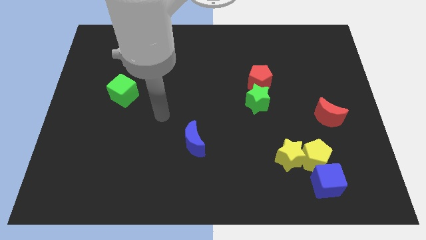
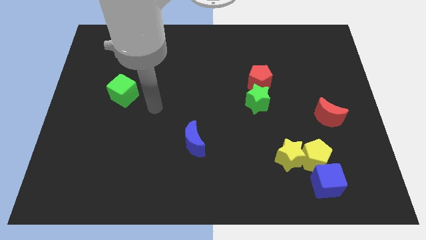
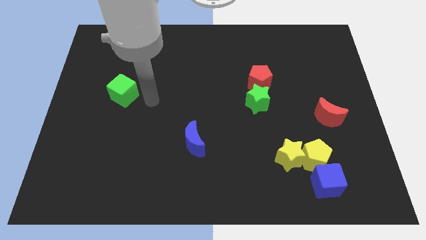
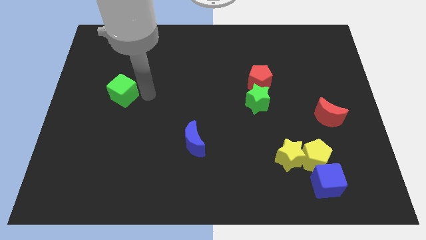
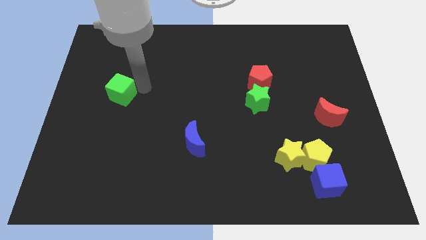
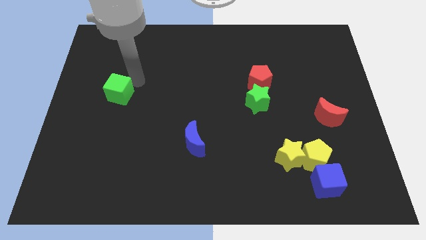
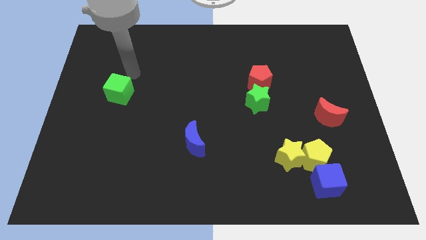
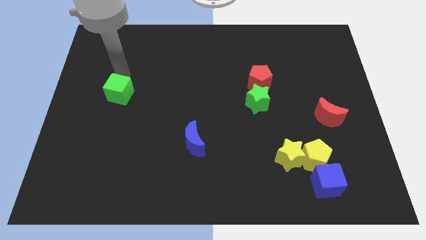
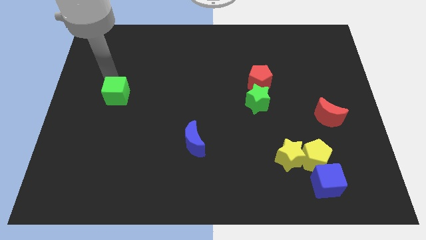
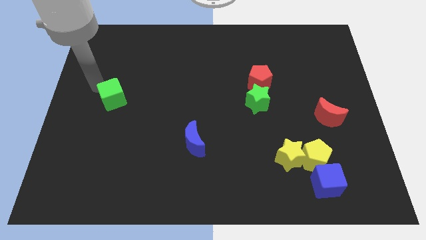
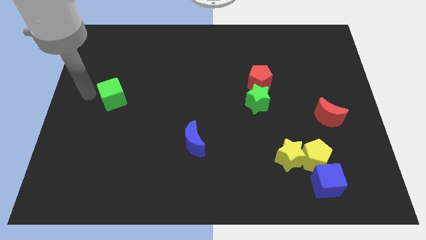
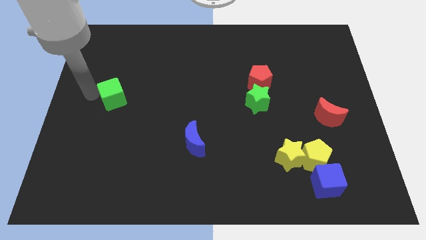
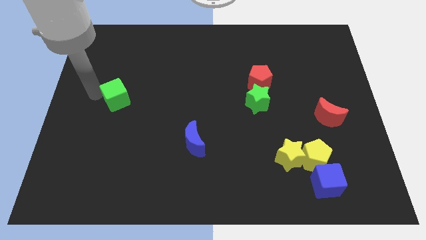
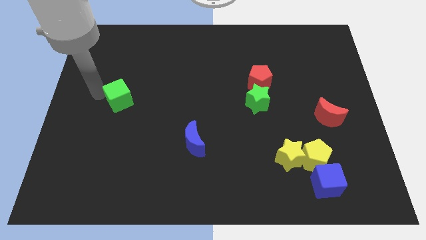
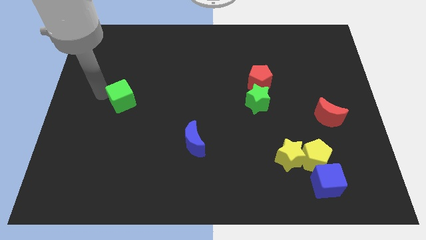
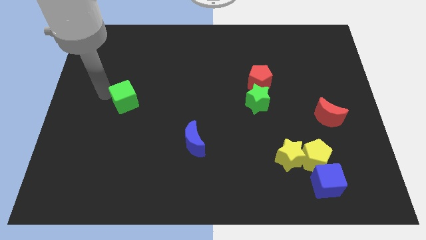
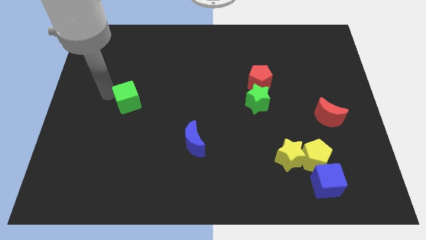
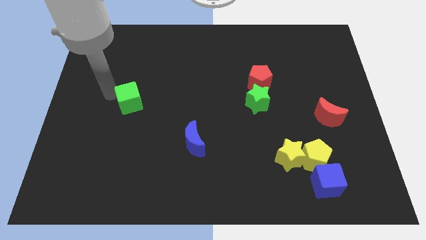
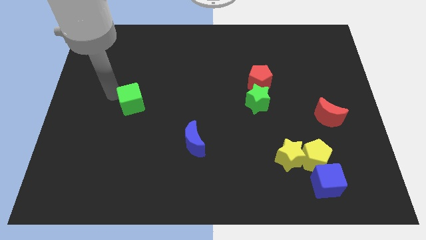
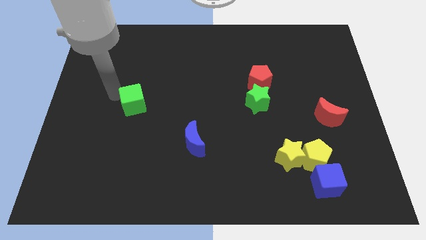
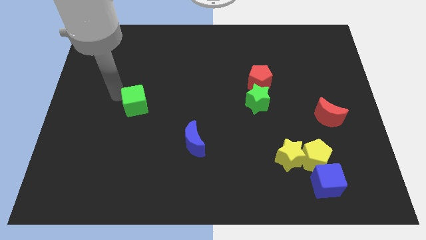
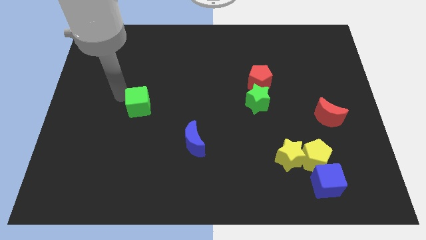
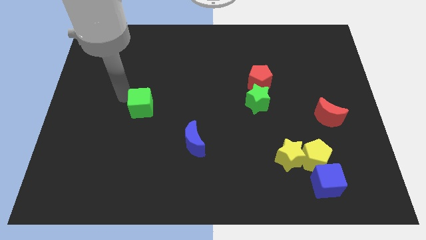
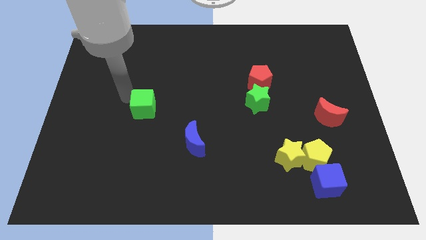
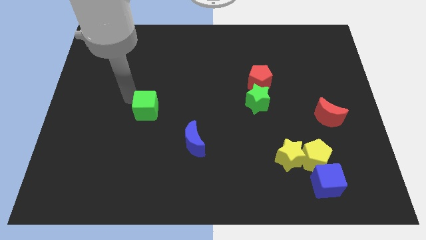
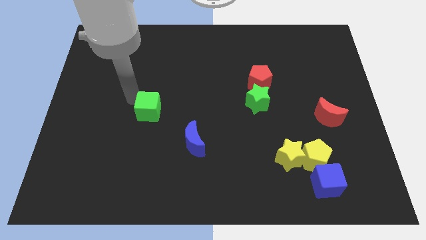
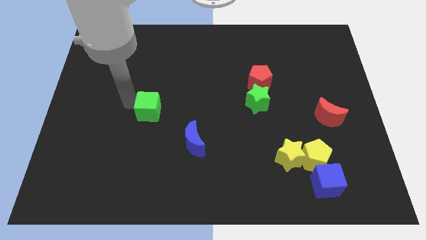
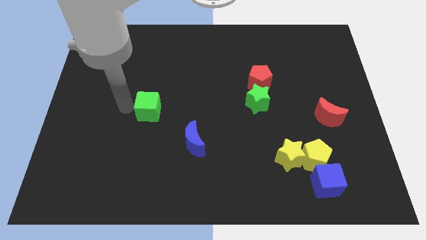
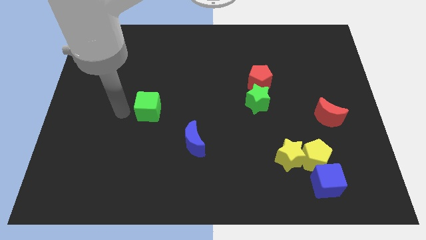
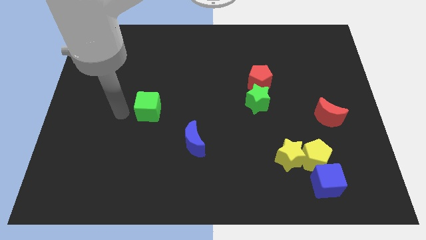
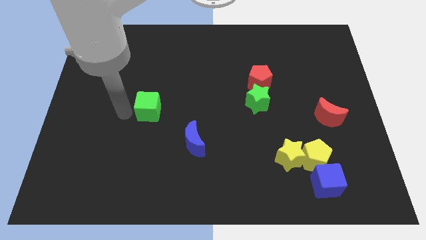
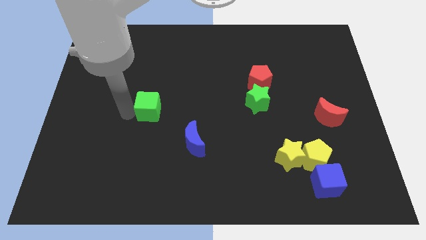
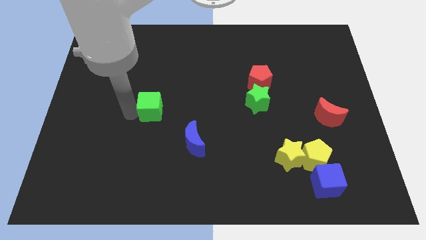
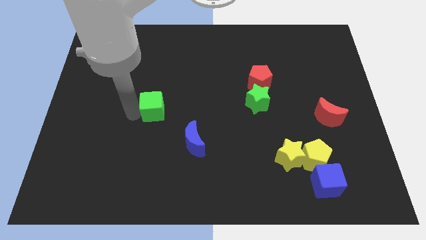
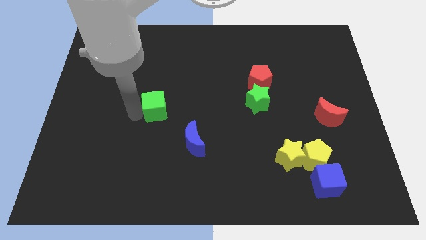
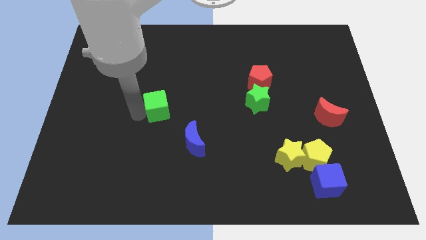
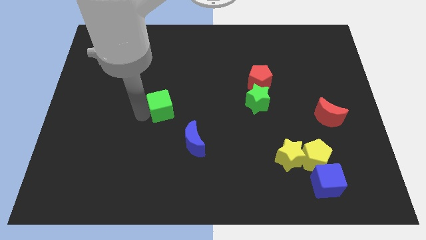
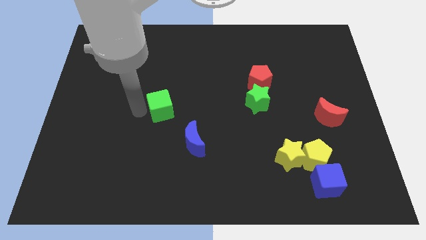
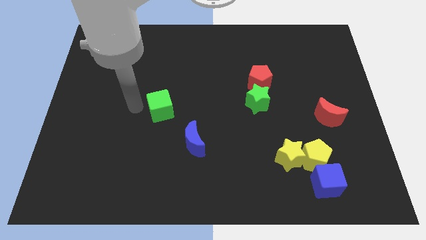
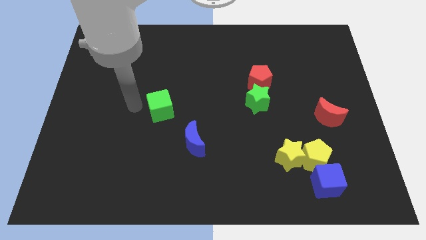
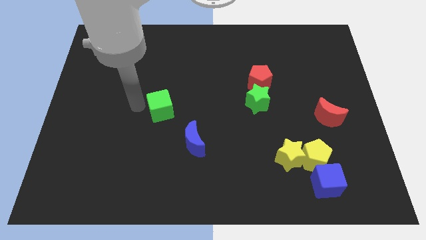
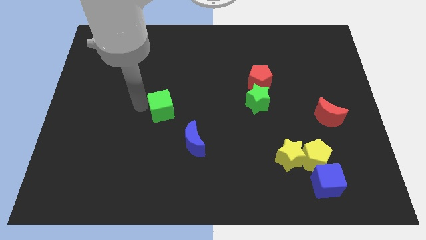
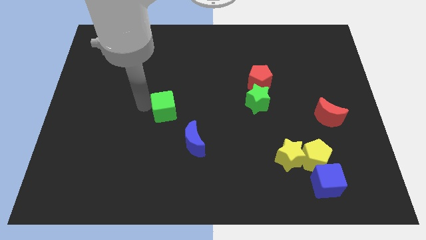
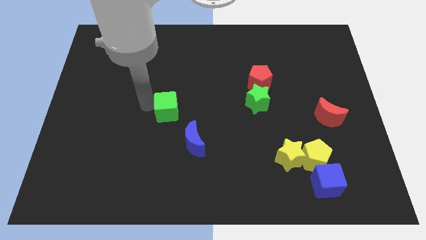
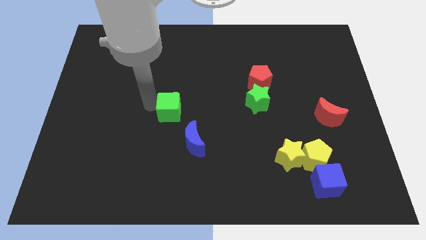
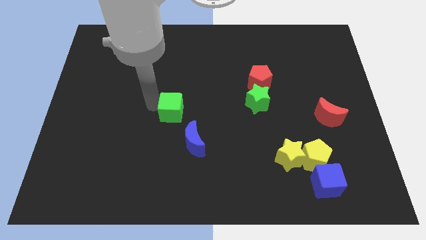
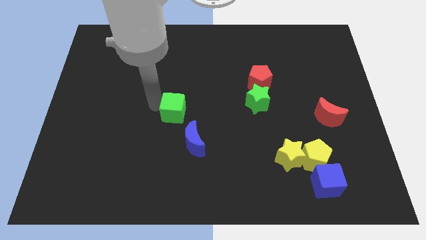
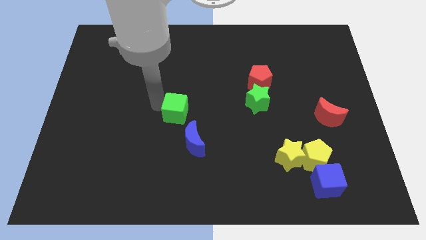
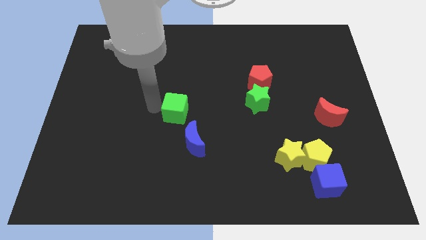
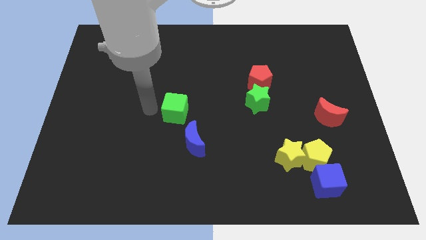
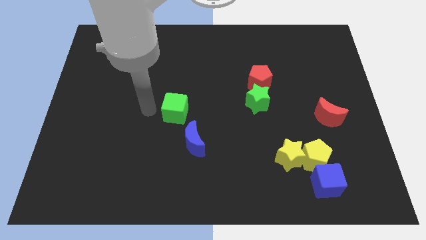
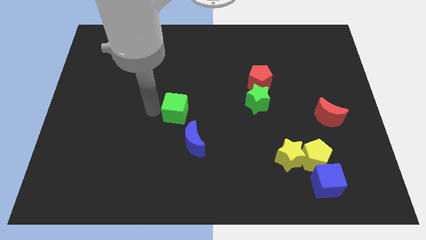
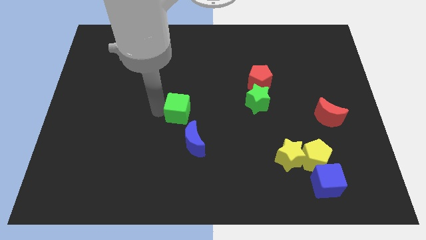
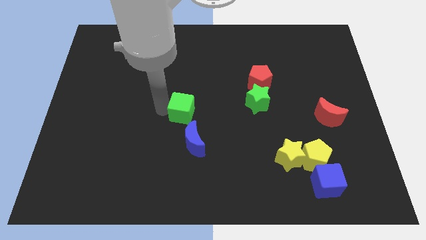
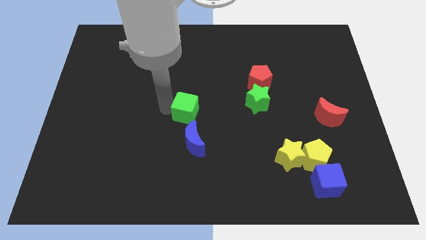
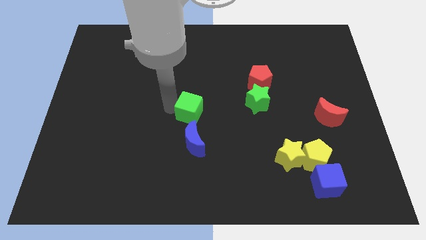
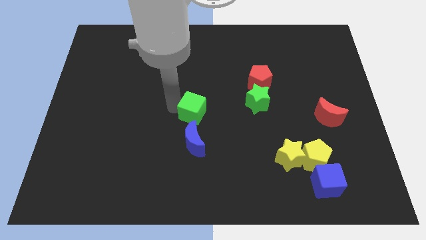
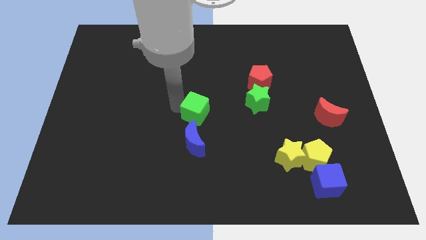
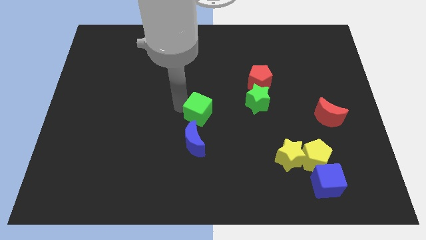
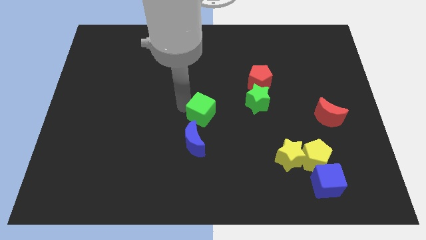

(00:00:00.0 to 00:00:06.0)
move the green cube to the top right side of the blue moon

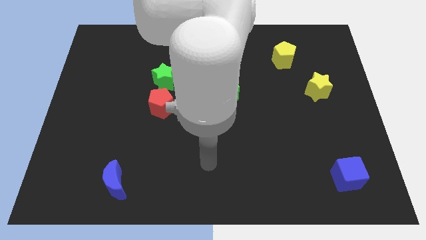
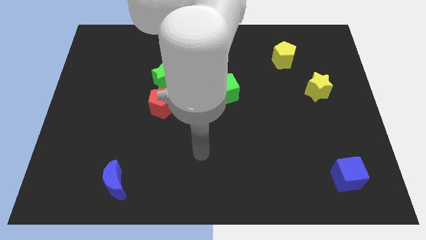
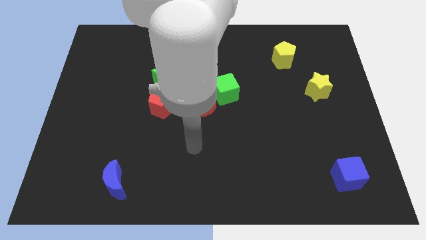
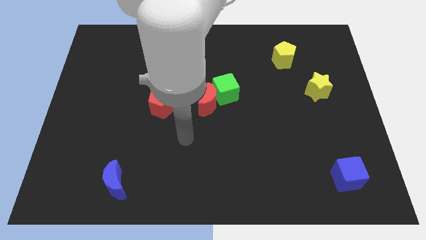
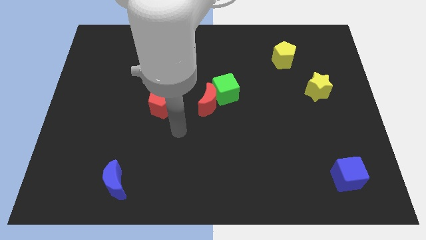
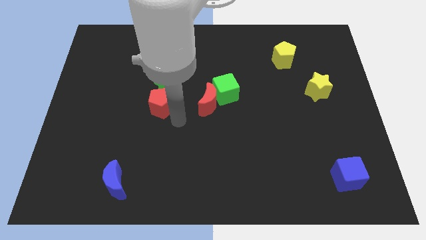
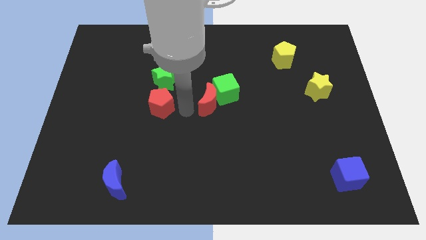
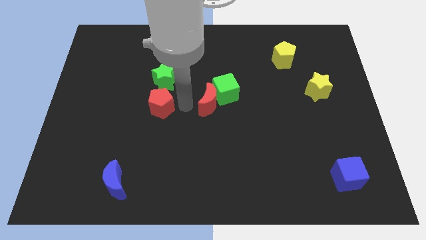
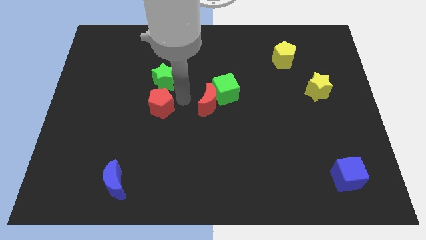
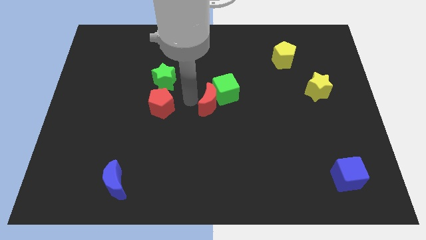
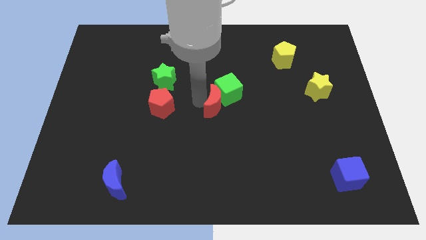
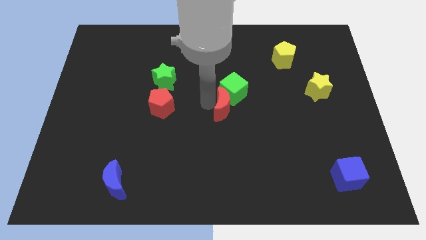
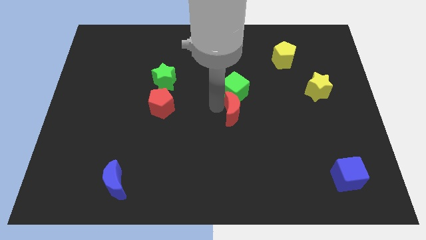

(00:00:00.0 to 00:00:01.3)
push the red moon diagonally down and to the right of the green cube
